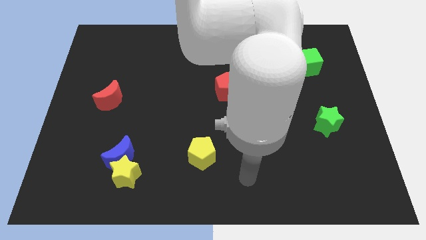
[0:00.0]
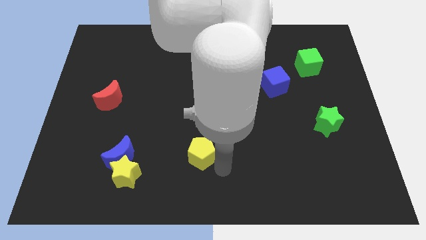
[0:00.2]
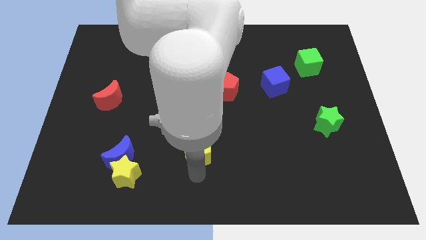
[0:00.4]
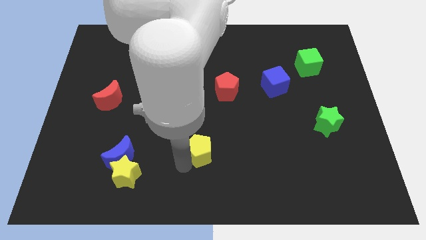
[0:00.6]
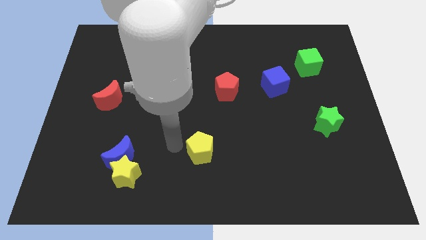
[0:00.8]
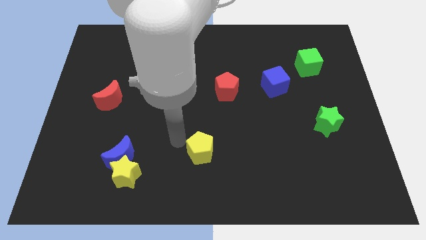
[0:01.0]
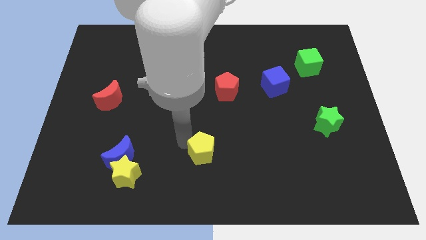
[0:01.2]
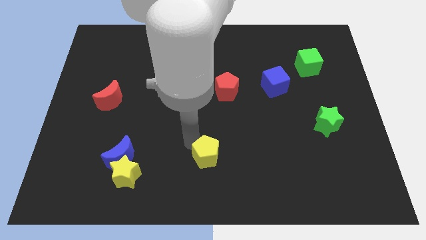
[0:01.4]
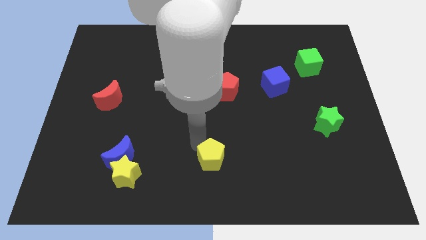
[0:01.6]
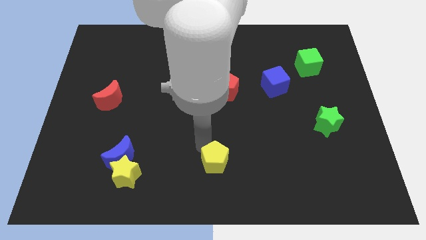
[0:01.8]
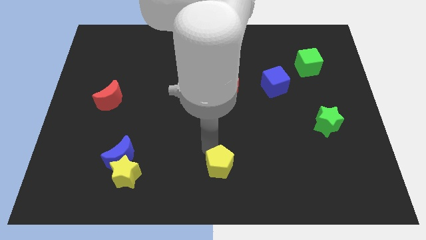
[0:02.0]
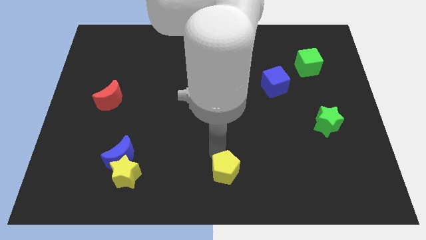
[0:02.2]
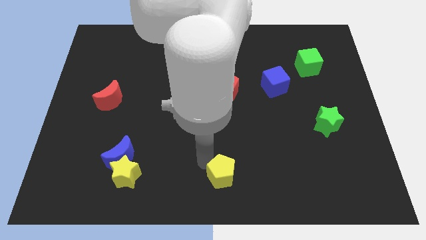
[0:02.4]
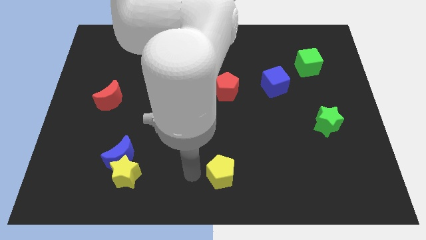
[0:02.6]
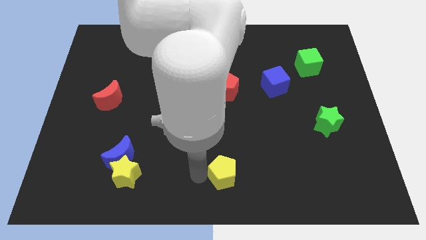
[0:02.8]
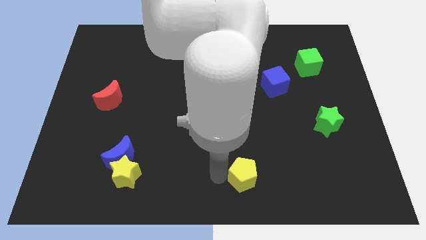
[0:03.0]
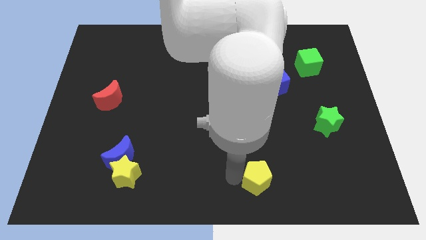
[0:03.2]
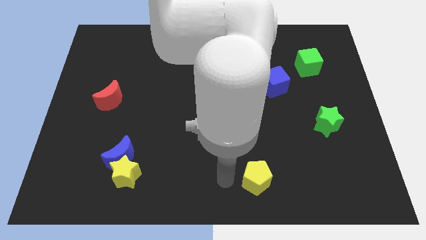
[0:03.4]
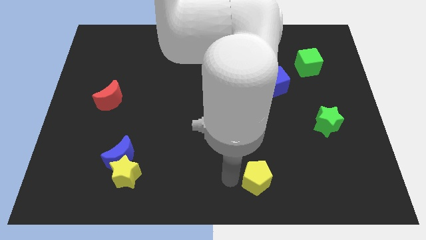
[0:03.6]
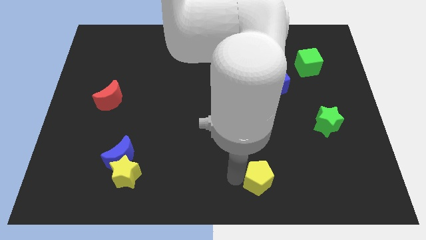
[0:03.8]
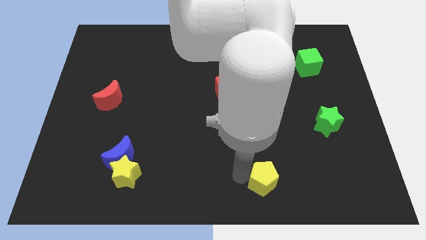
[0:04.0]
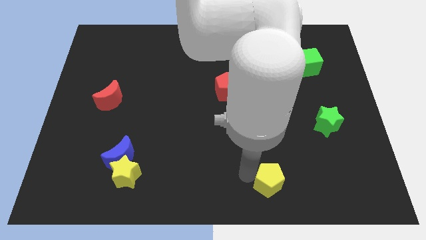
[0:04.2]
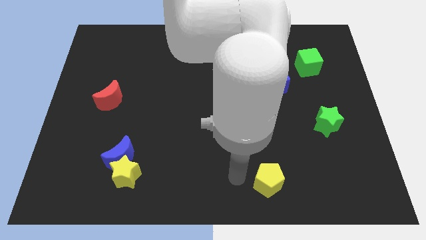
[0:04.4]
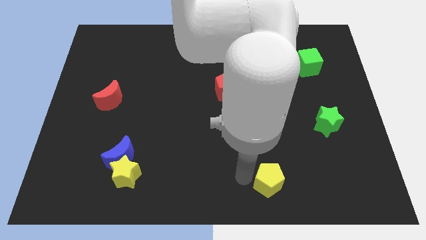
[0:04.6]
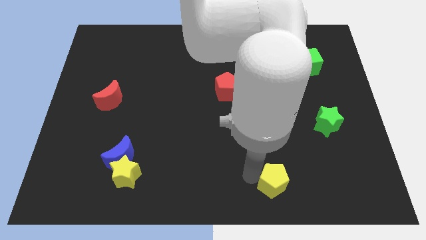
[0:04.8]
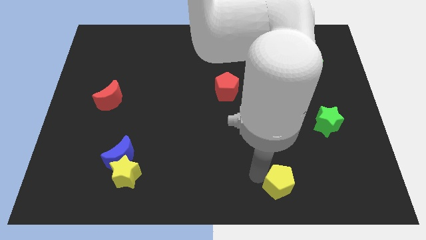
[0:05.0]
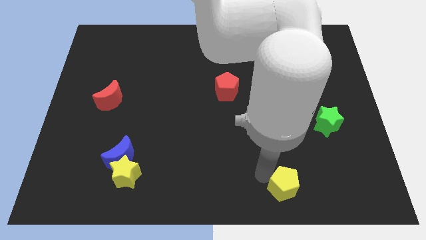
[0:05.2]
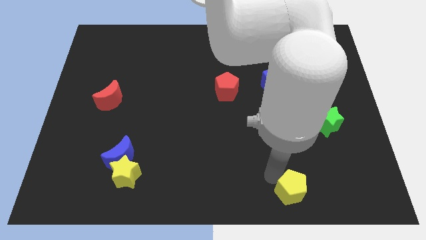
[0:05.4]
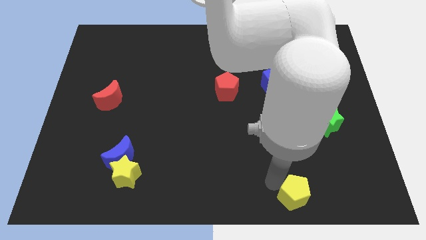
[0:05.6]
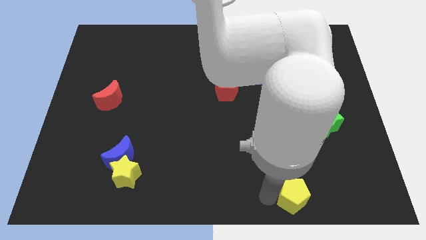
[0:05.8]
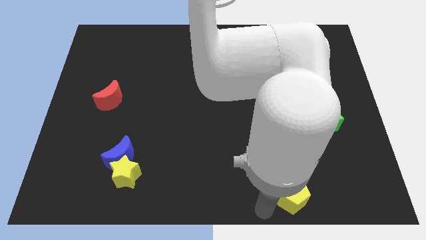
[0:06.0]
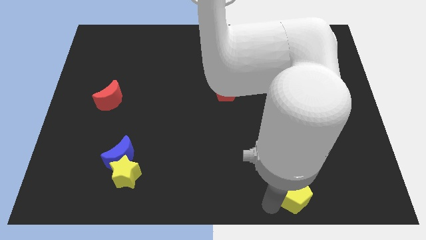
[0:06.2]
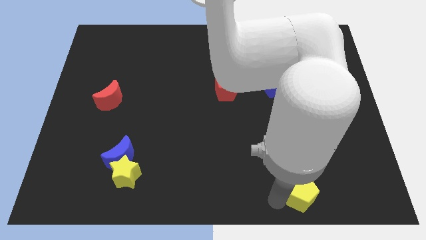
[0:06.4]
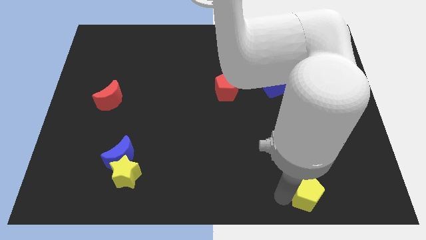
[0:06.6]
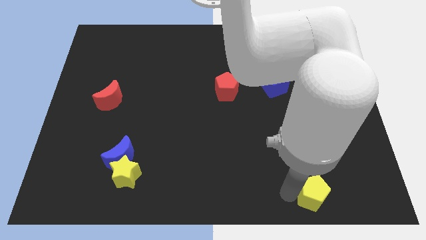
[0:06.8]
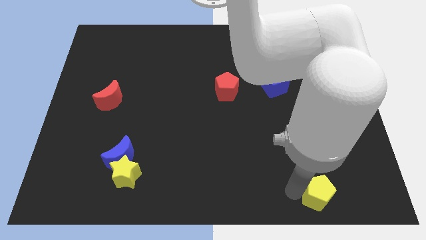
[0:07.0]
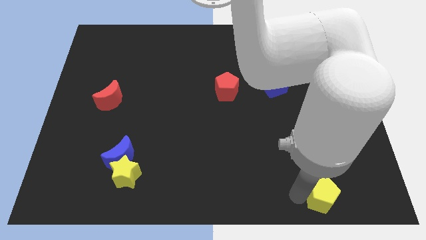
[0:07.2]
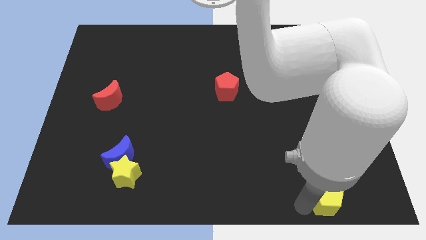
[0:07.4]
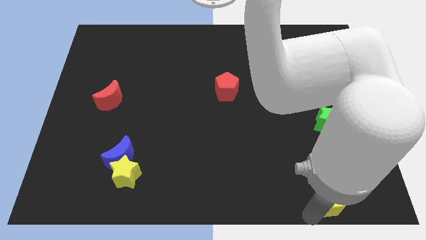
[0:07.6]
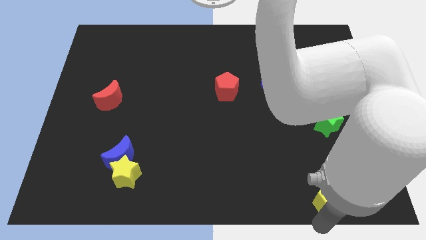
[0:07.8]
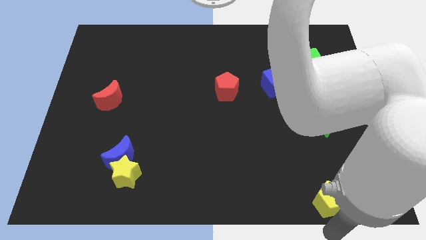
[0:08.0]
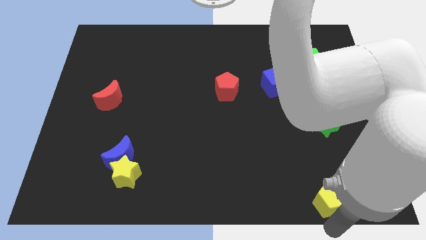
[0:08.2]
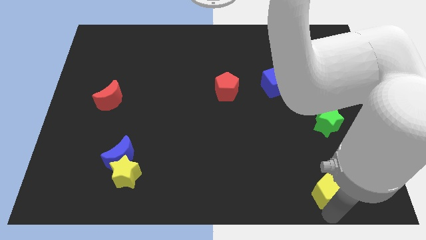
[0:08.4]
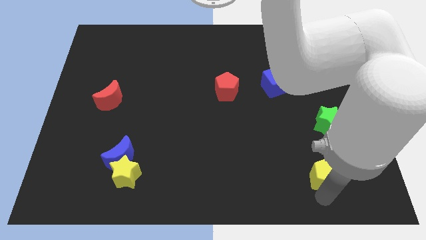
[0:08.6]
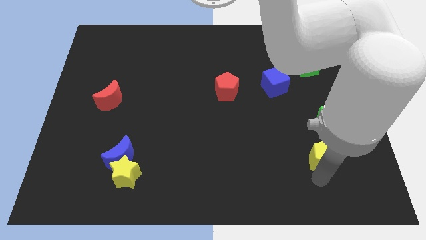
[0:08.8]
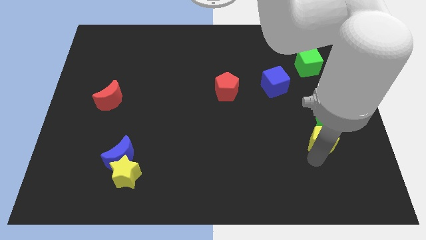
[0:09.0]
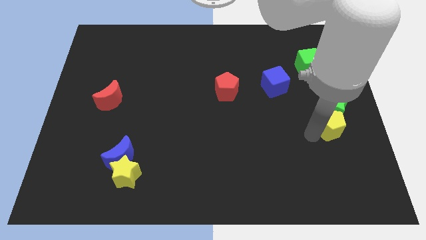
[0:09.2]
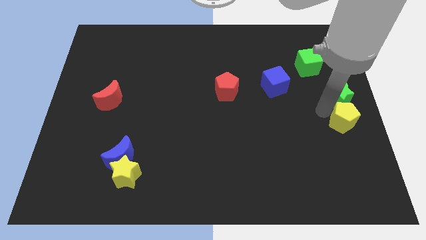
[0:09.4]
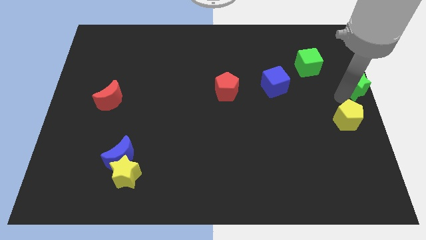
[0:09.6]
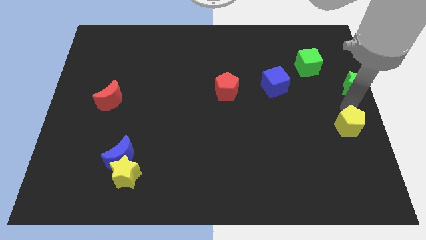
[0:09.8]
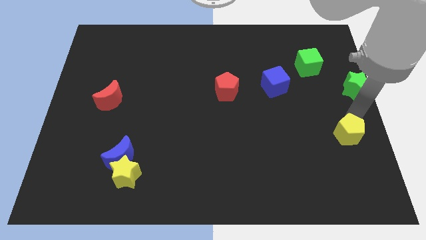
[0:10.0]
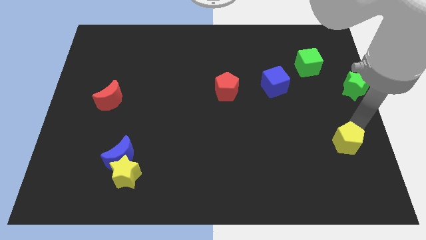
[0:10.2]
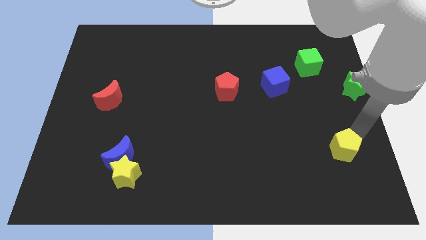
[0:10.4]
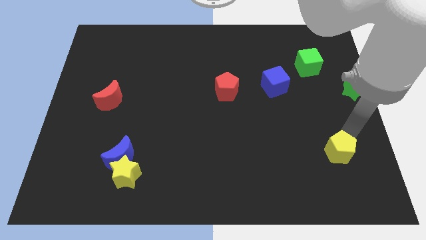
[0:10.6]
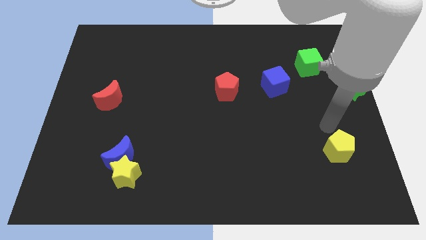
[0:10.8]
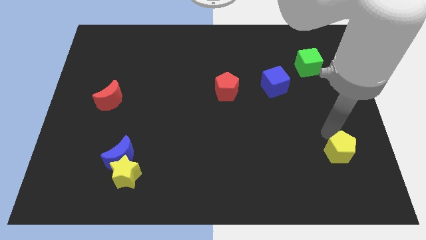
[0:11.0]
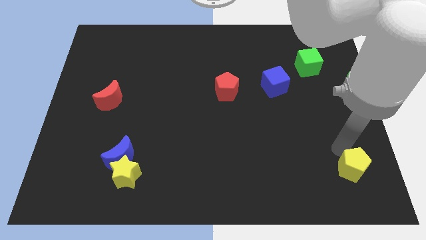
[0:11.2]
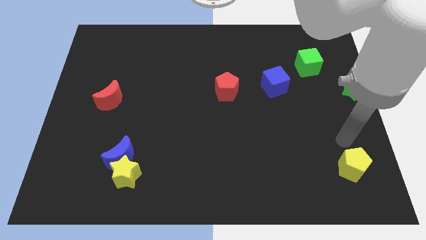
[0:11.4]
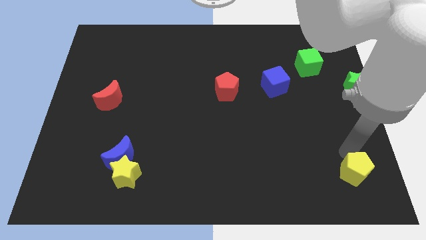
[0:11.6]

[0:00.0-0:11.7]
push the yellow pentagon to the bottom right of the board
